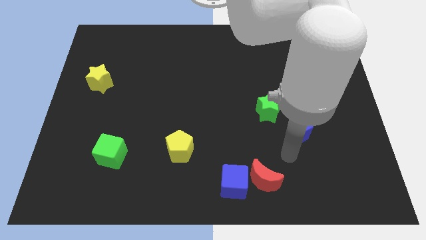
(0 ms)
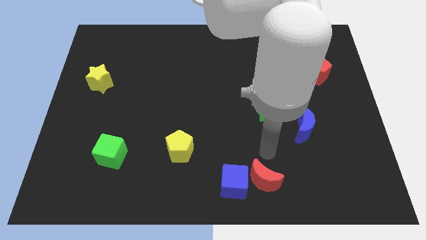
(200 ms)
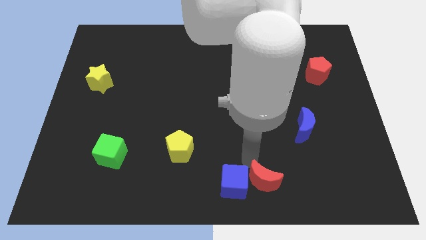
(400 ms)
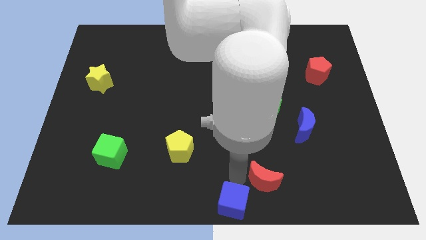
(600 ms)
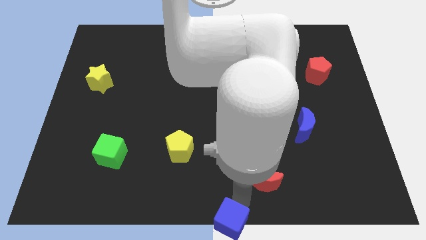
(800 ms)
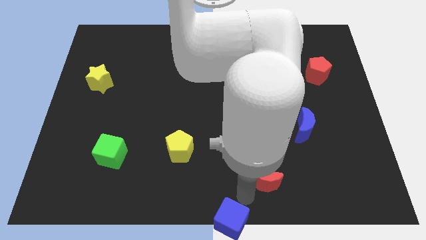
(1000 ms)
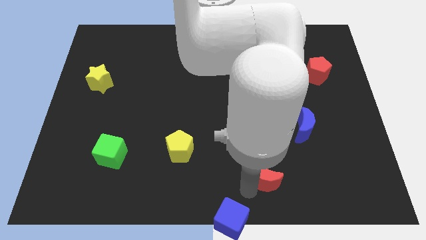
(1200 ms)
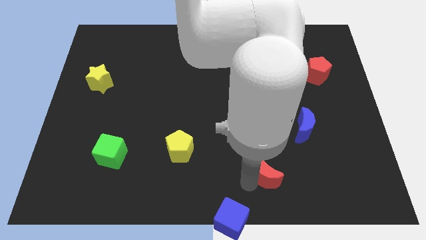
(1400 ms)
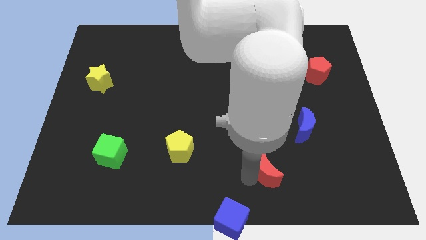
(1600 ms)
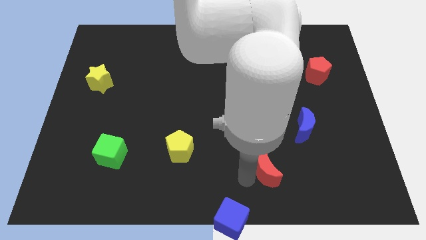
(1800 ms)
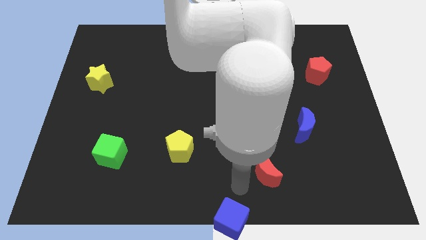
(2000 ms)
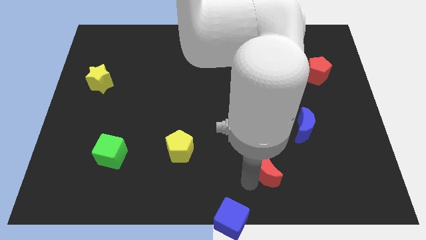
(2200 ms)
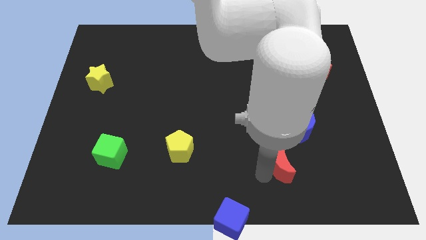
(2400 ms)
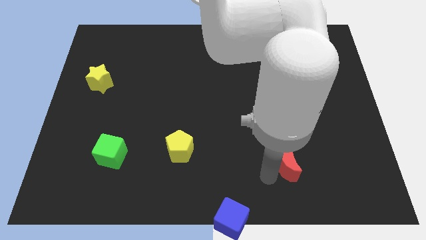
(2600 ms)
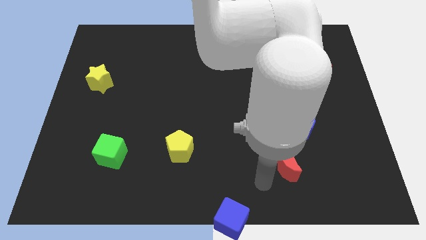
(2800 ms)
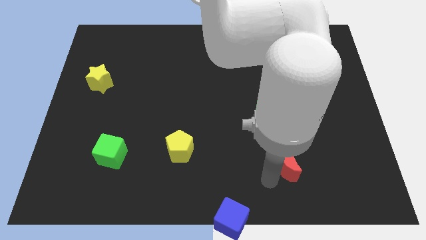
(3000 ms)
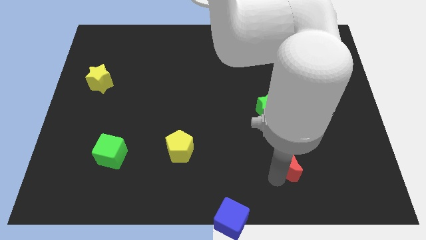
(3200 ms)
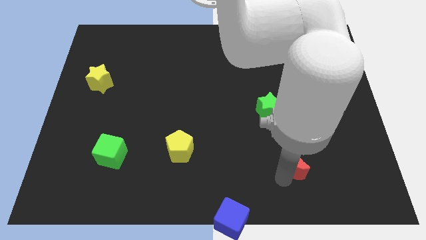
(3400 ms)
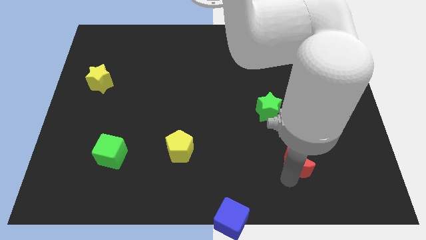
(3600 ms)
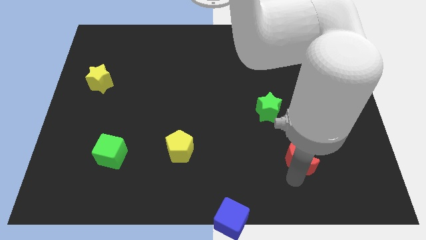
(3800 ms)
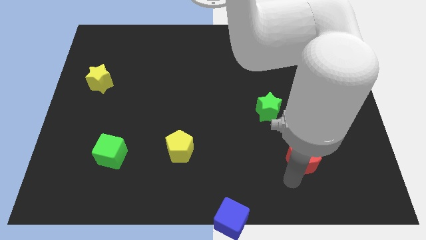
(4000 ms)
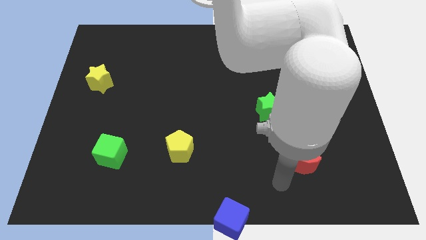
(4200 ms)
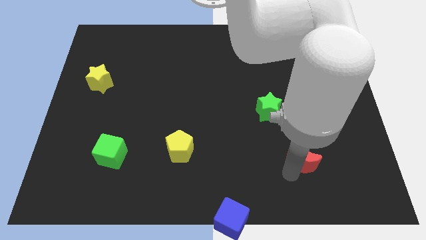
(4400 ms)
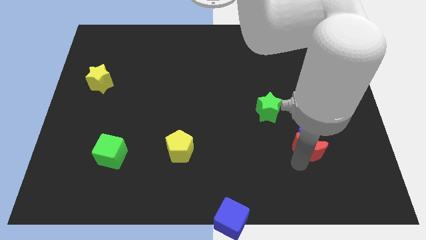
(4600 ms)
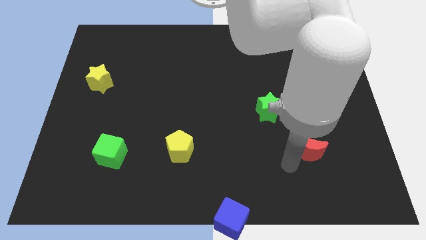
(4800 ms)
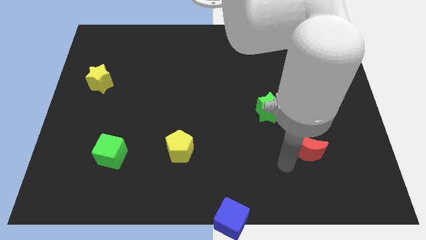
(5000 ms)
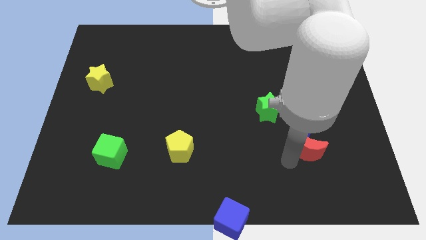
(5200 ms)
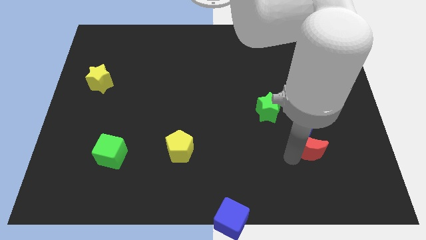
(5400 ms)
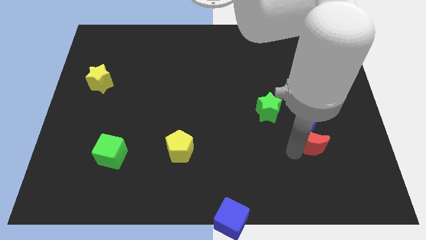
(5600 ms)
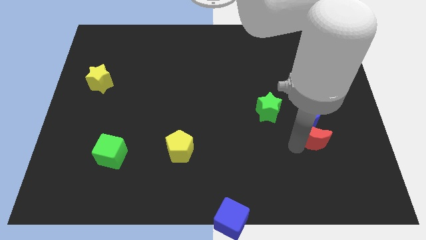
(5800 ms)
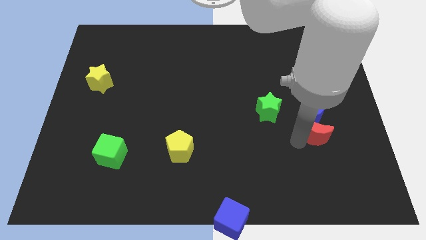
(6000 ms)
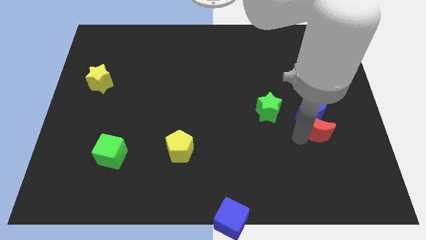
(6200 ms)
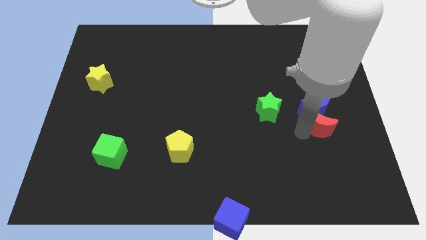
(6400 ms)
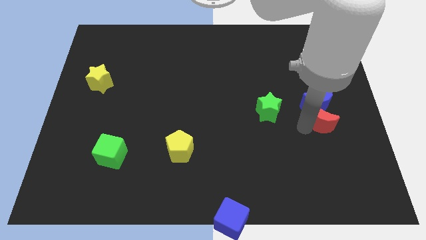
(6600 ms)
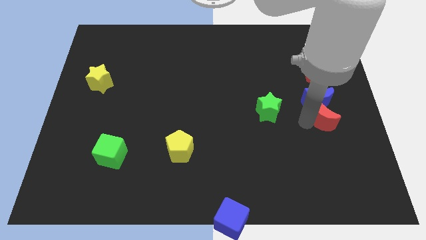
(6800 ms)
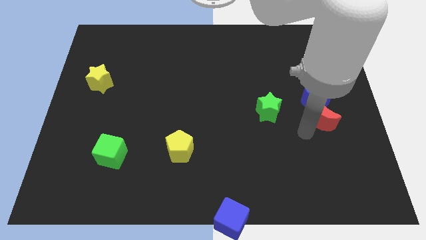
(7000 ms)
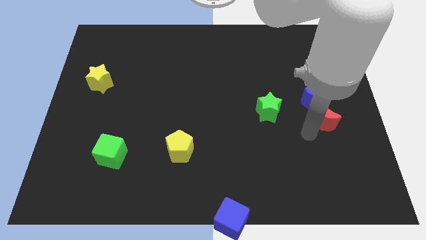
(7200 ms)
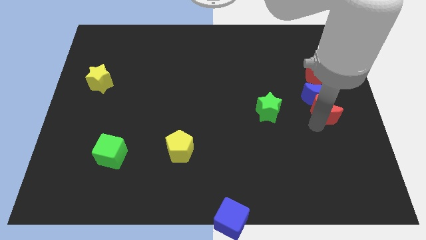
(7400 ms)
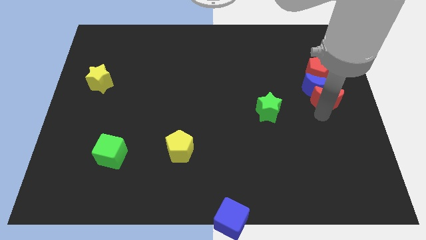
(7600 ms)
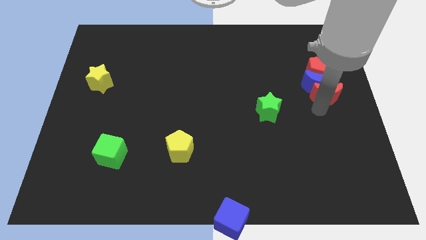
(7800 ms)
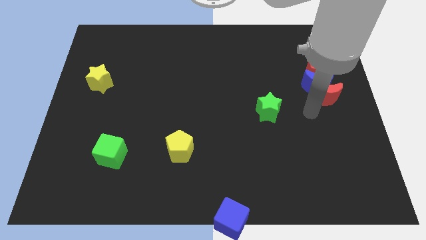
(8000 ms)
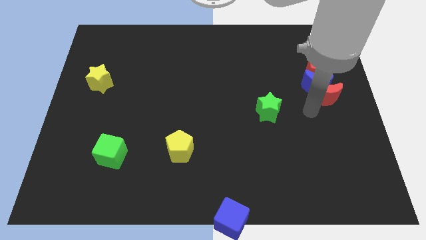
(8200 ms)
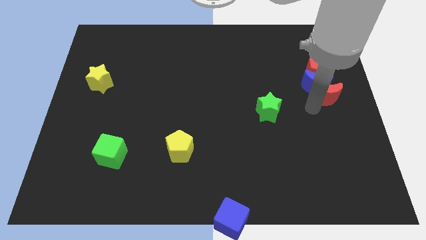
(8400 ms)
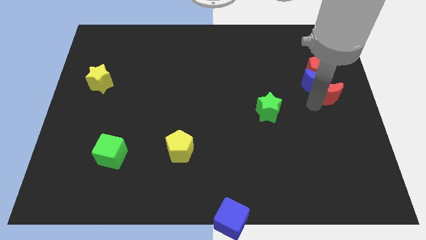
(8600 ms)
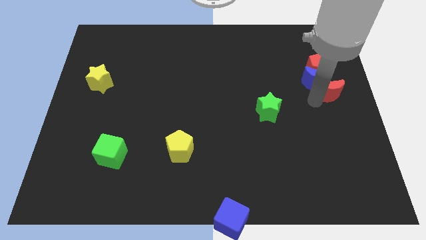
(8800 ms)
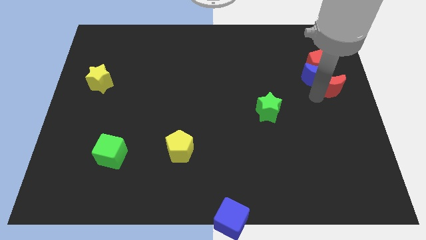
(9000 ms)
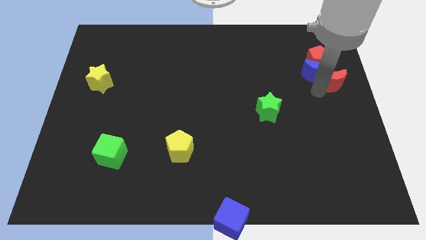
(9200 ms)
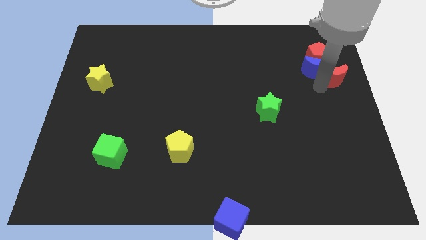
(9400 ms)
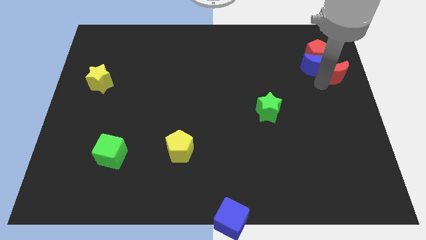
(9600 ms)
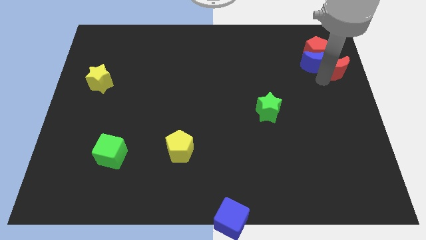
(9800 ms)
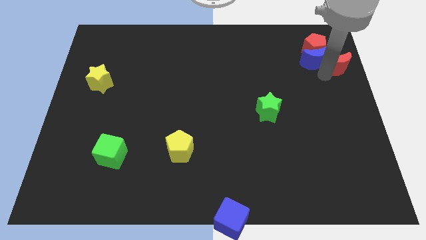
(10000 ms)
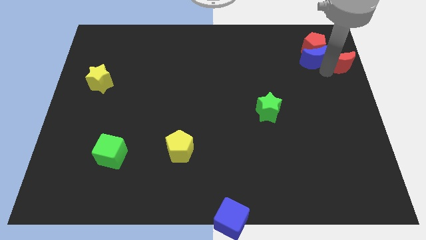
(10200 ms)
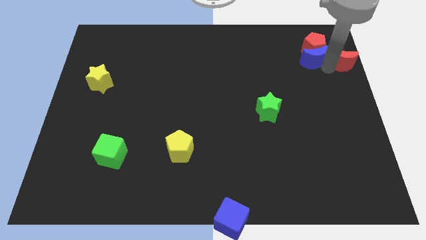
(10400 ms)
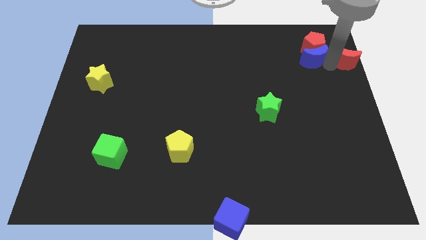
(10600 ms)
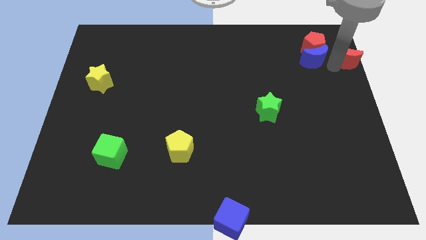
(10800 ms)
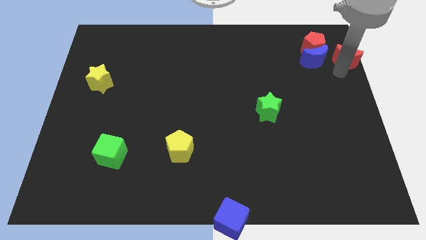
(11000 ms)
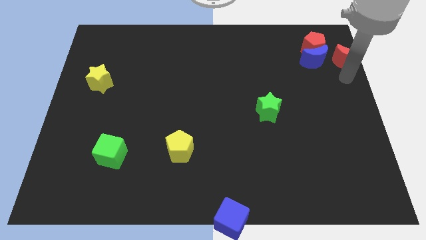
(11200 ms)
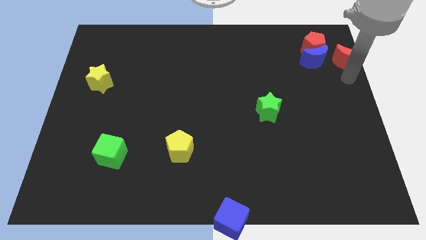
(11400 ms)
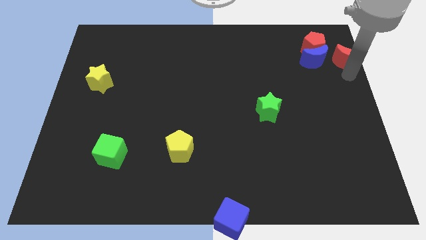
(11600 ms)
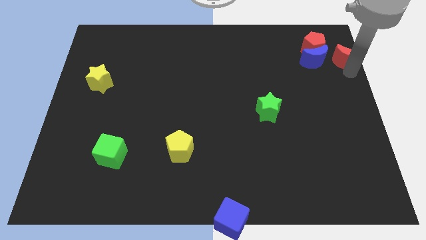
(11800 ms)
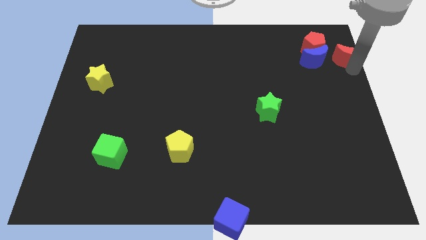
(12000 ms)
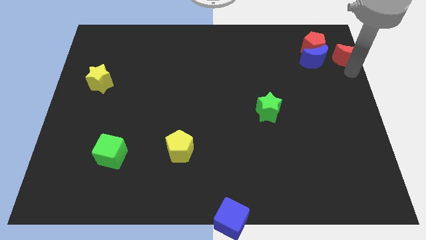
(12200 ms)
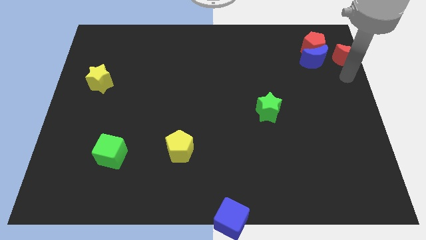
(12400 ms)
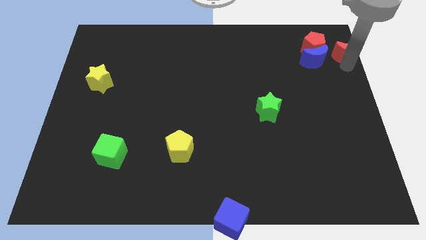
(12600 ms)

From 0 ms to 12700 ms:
slide the red moon to the upper right corner
